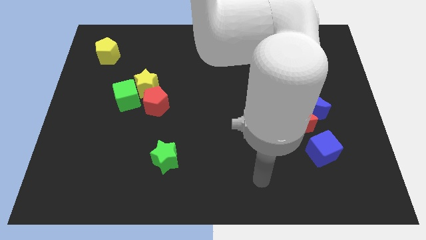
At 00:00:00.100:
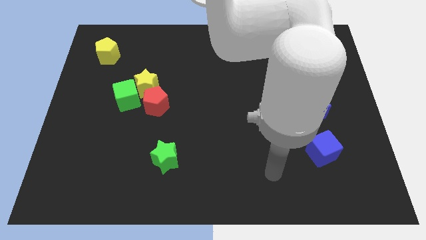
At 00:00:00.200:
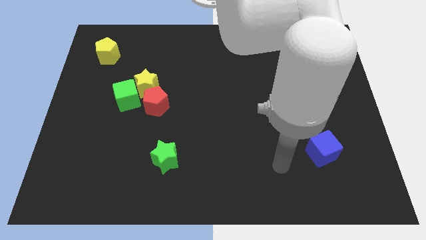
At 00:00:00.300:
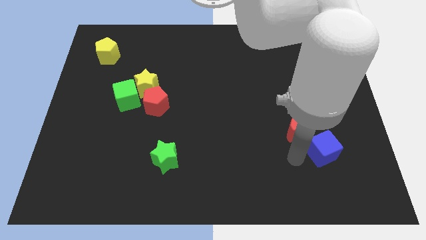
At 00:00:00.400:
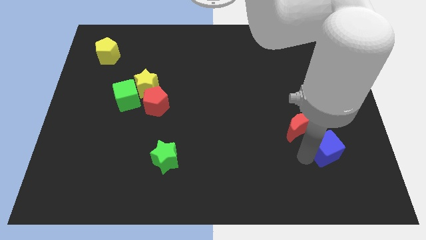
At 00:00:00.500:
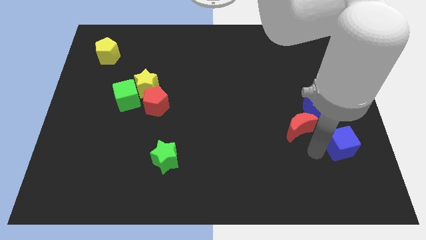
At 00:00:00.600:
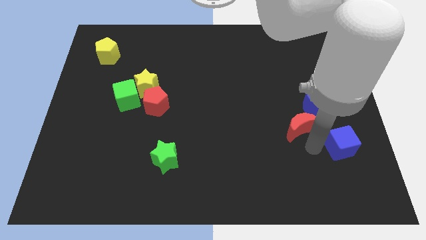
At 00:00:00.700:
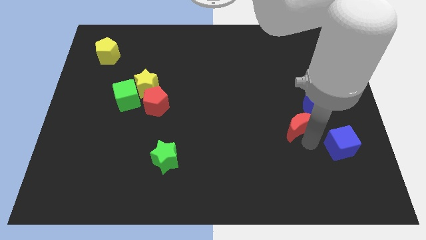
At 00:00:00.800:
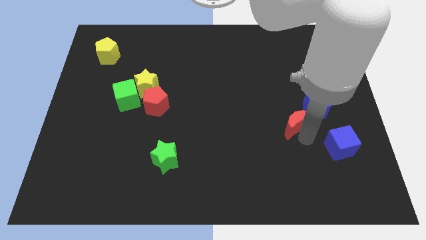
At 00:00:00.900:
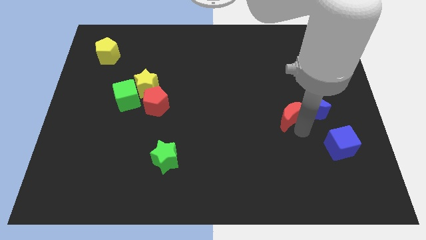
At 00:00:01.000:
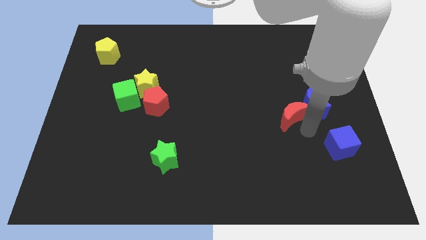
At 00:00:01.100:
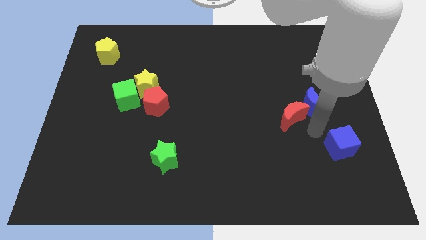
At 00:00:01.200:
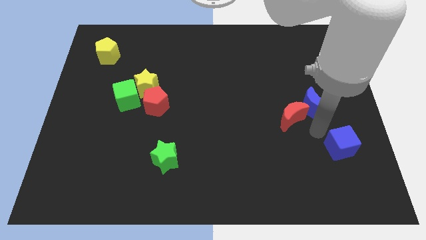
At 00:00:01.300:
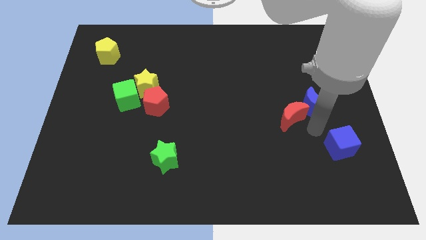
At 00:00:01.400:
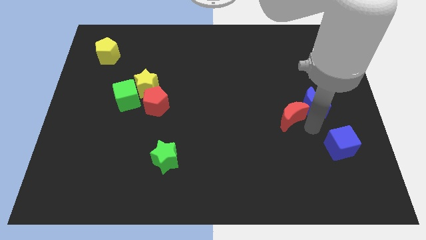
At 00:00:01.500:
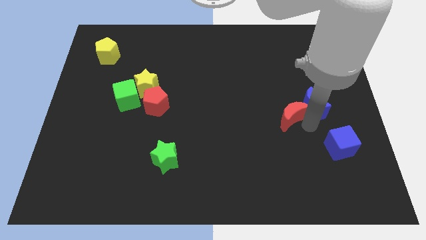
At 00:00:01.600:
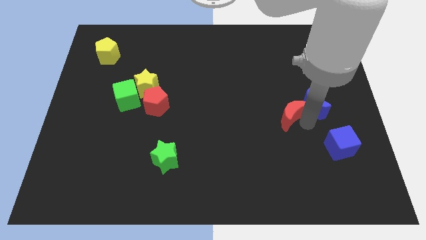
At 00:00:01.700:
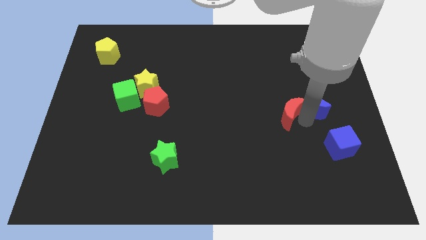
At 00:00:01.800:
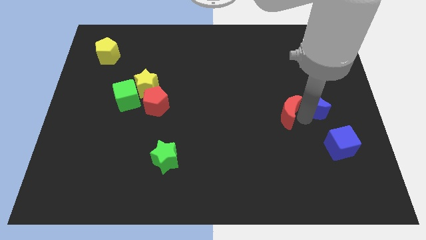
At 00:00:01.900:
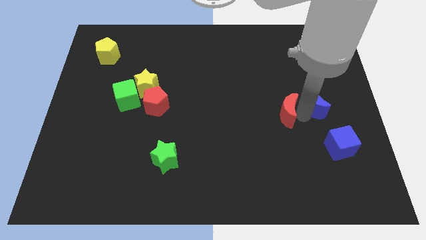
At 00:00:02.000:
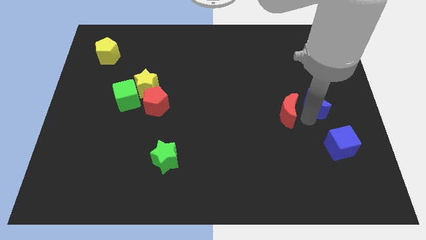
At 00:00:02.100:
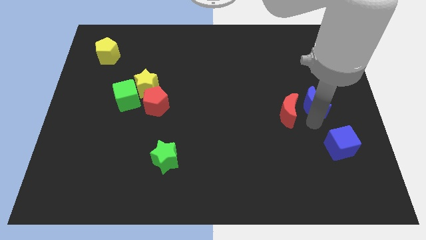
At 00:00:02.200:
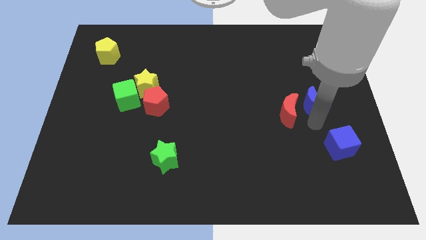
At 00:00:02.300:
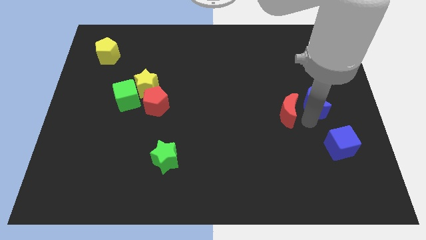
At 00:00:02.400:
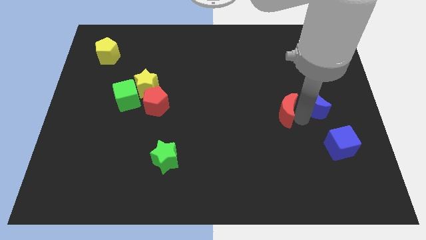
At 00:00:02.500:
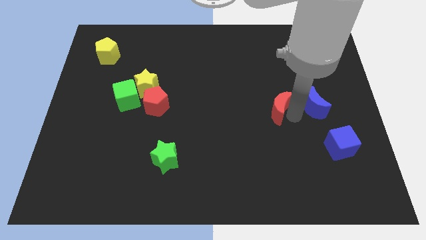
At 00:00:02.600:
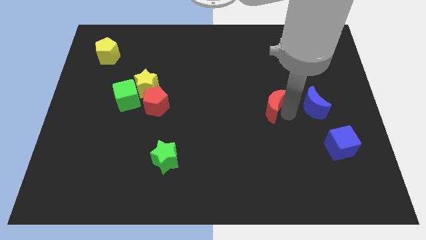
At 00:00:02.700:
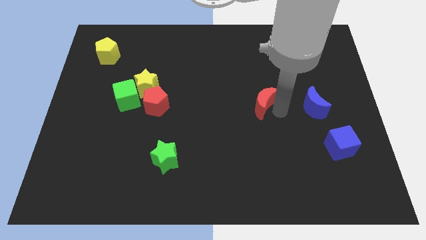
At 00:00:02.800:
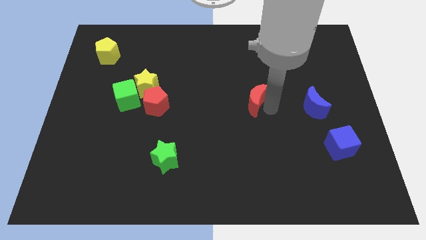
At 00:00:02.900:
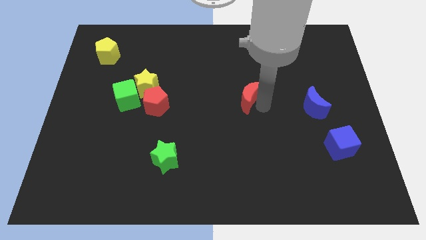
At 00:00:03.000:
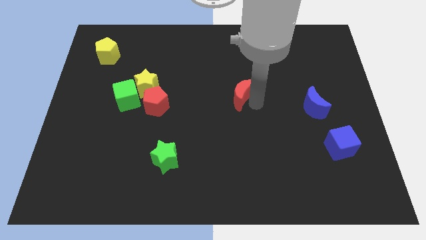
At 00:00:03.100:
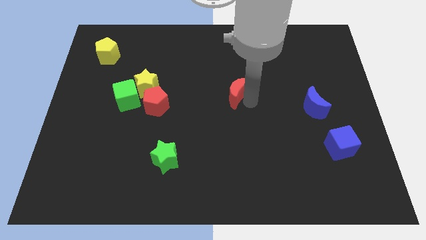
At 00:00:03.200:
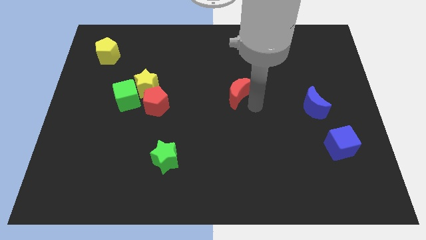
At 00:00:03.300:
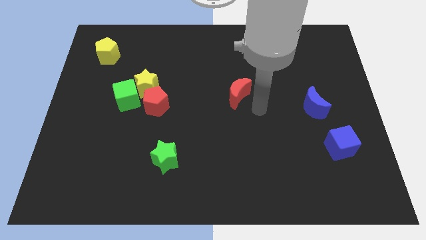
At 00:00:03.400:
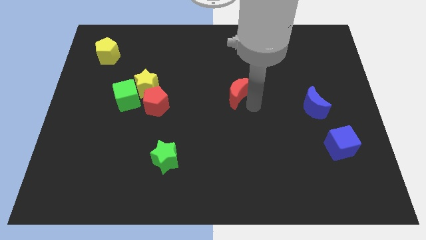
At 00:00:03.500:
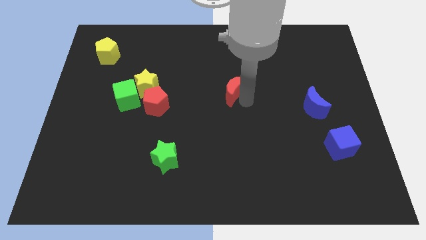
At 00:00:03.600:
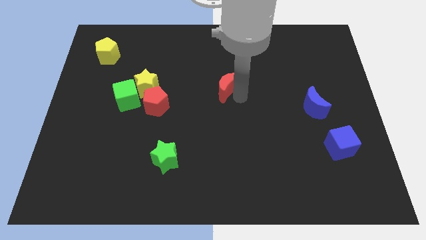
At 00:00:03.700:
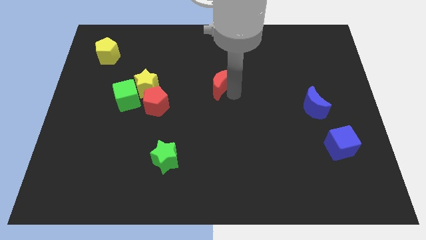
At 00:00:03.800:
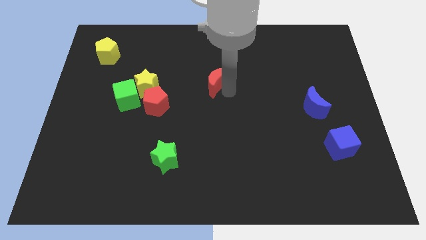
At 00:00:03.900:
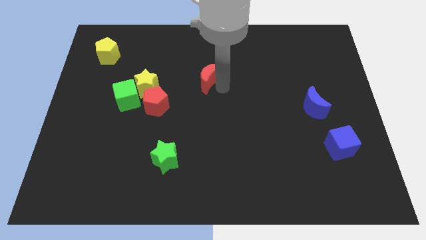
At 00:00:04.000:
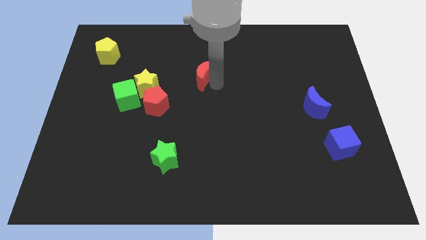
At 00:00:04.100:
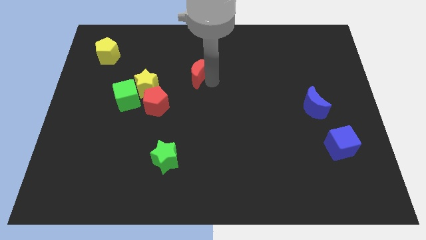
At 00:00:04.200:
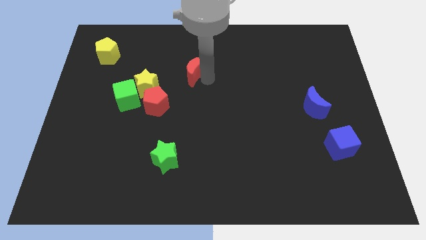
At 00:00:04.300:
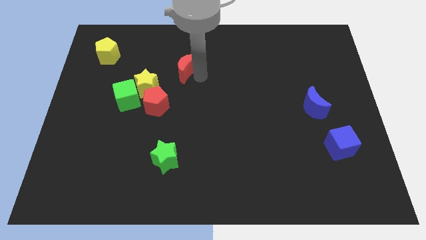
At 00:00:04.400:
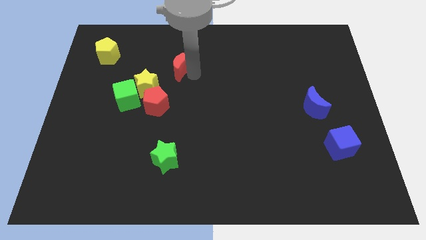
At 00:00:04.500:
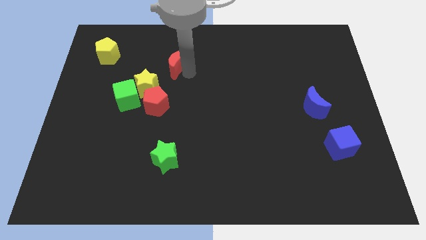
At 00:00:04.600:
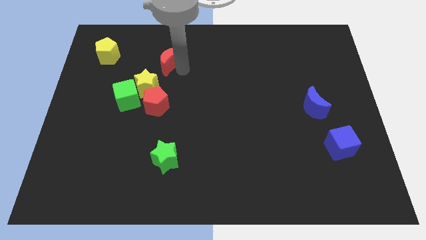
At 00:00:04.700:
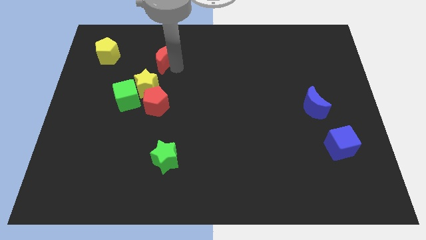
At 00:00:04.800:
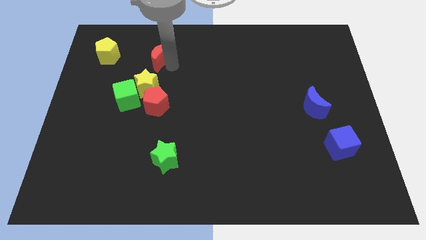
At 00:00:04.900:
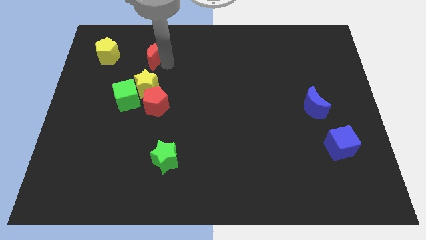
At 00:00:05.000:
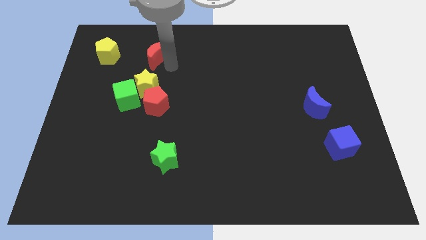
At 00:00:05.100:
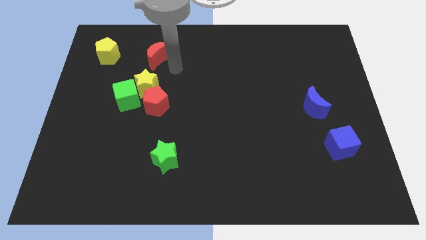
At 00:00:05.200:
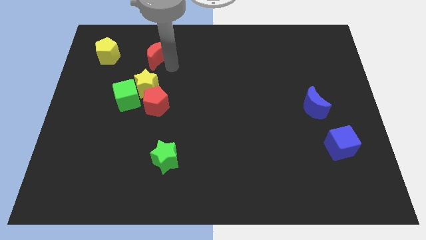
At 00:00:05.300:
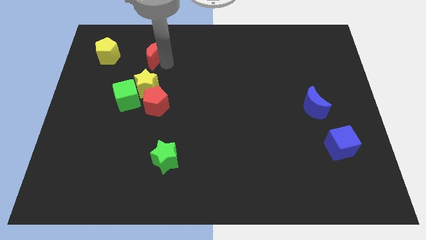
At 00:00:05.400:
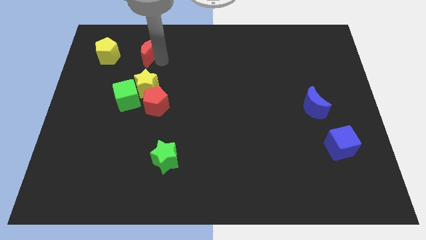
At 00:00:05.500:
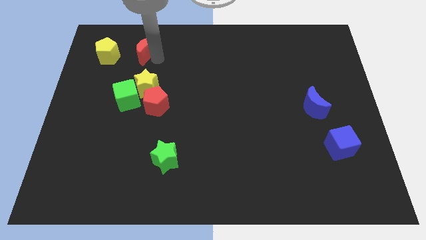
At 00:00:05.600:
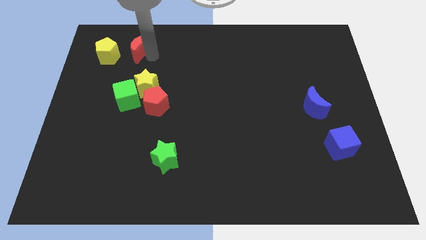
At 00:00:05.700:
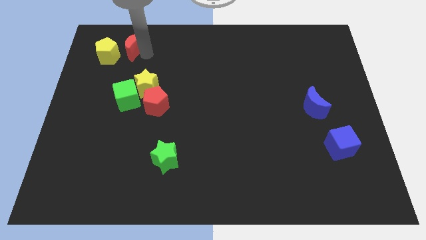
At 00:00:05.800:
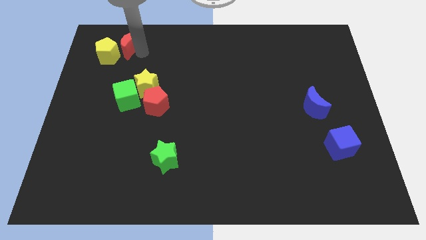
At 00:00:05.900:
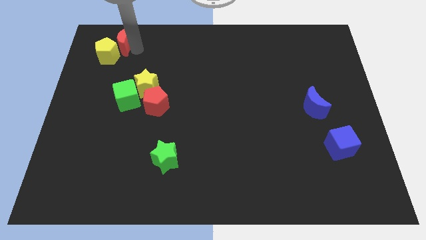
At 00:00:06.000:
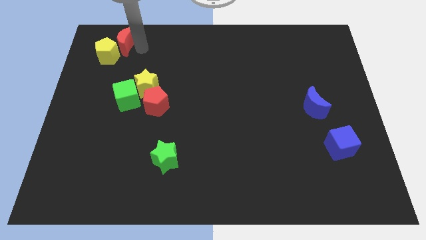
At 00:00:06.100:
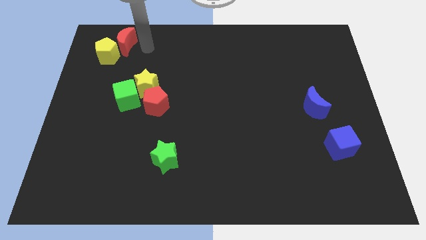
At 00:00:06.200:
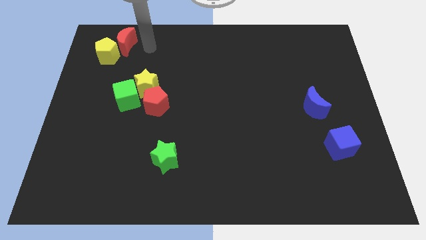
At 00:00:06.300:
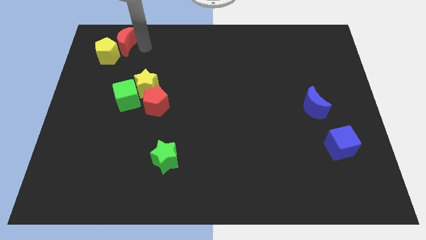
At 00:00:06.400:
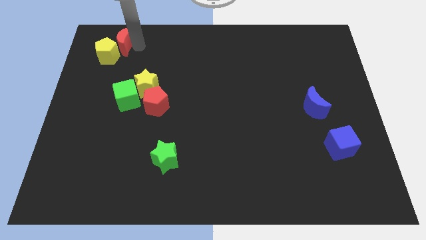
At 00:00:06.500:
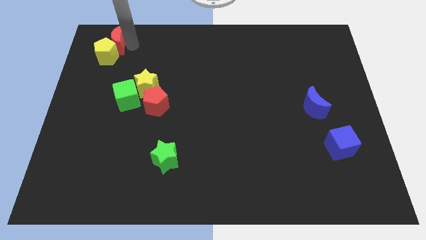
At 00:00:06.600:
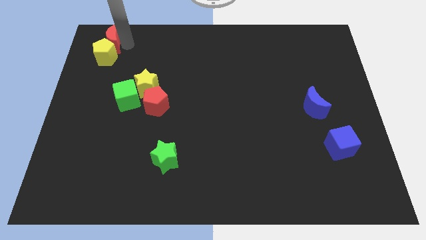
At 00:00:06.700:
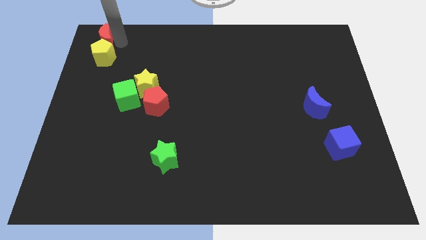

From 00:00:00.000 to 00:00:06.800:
push the red moon to the upper left corner
